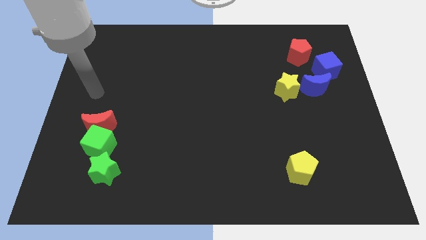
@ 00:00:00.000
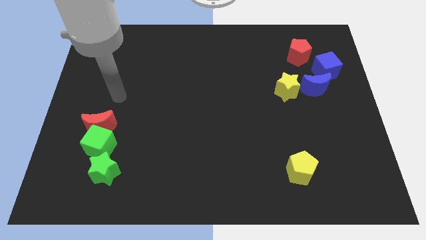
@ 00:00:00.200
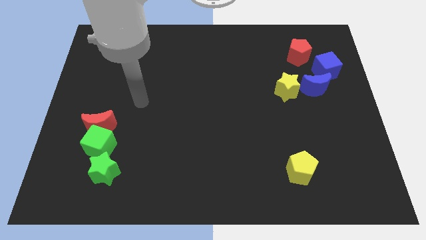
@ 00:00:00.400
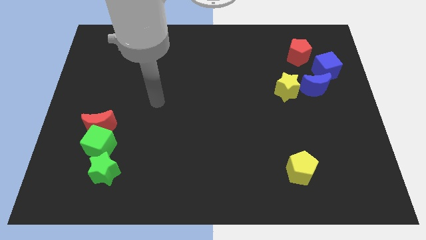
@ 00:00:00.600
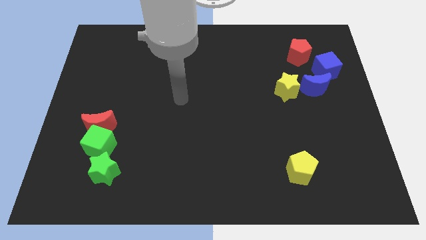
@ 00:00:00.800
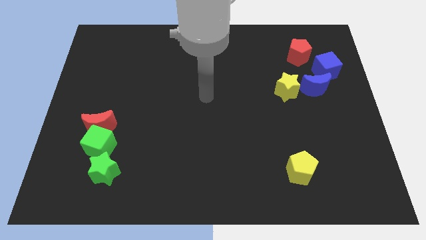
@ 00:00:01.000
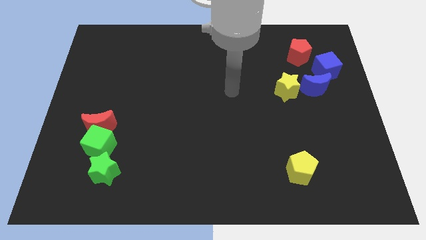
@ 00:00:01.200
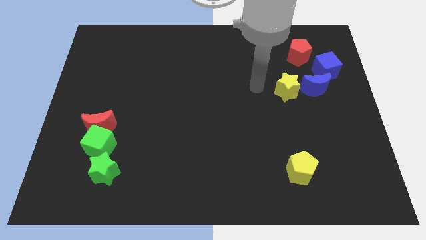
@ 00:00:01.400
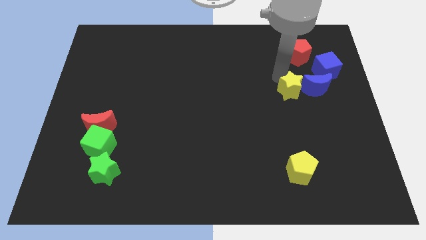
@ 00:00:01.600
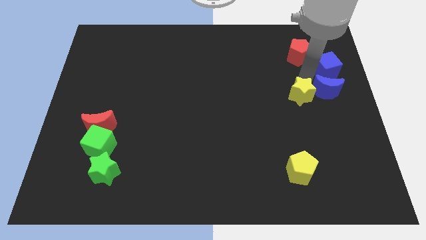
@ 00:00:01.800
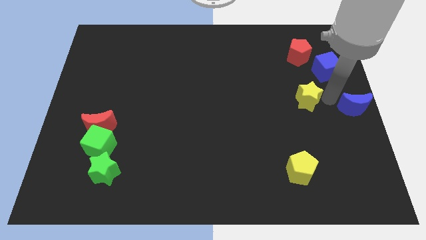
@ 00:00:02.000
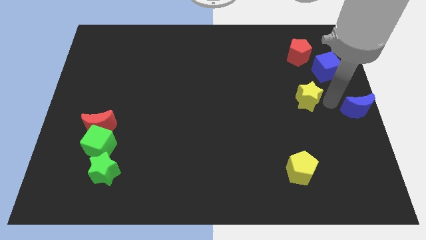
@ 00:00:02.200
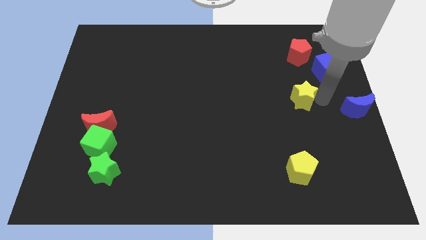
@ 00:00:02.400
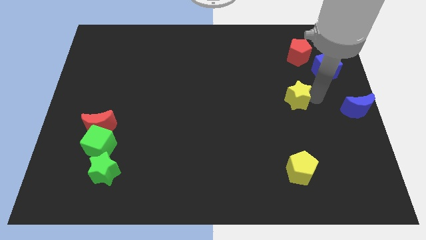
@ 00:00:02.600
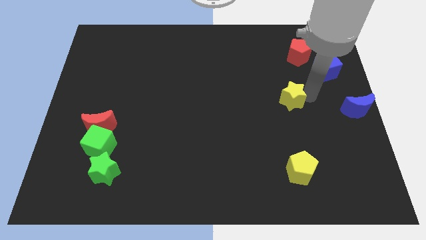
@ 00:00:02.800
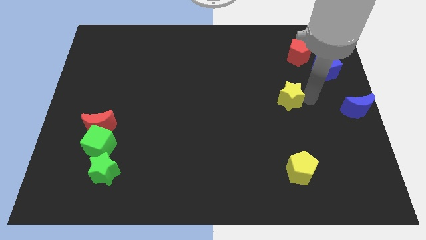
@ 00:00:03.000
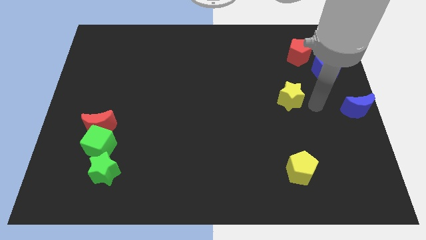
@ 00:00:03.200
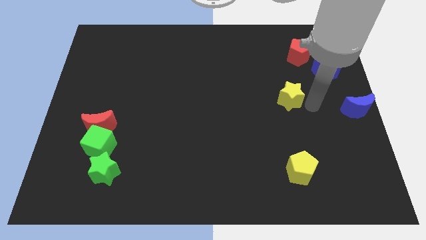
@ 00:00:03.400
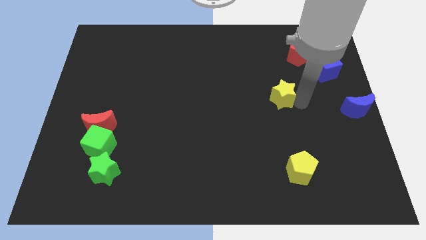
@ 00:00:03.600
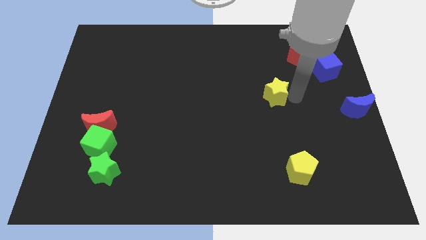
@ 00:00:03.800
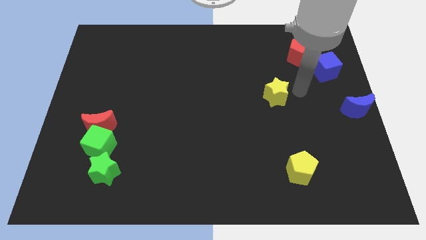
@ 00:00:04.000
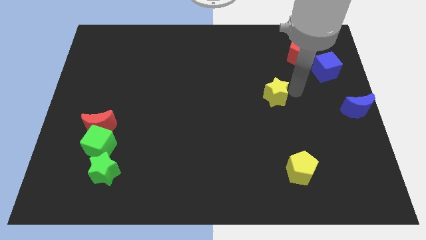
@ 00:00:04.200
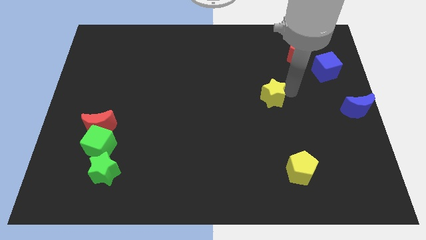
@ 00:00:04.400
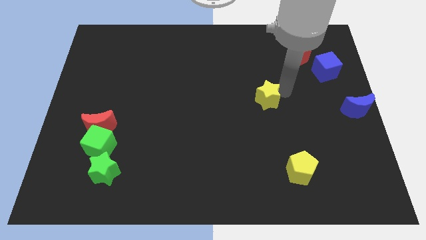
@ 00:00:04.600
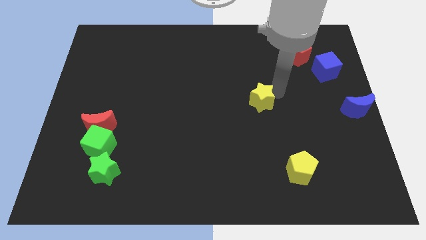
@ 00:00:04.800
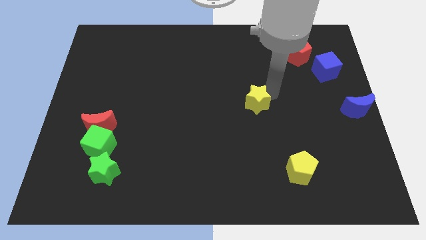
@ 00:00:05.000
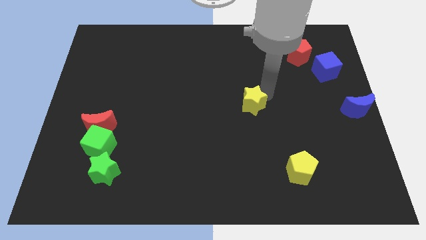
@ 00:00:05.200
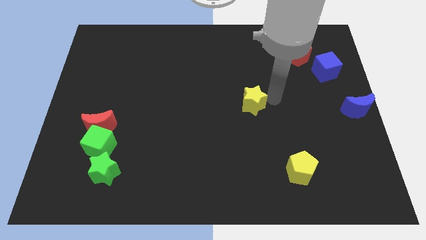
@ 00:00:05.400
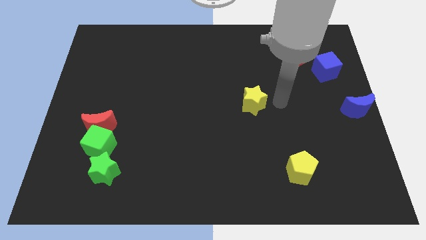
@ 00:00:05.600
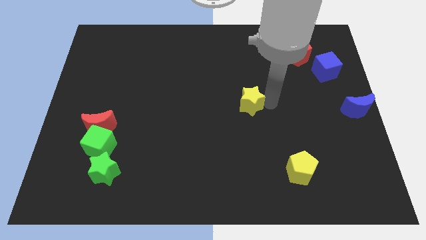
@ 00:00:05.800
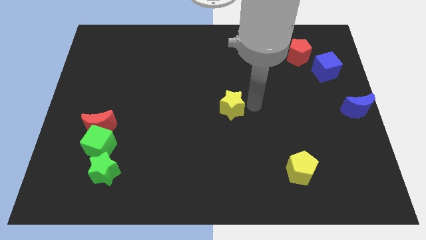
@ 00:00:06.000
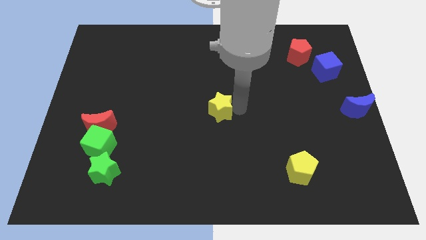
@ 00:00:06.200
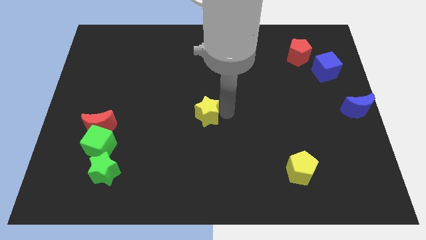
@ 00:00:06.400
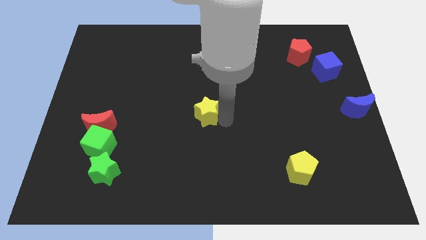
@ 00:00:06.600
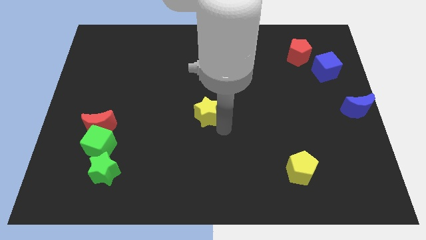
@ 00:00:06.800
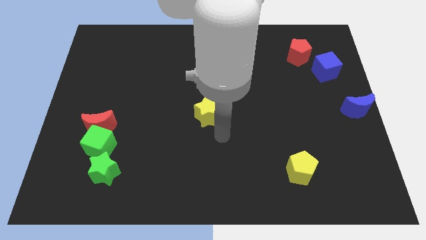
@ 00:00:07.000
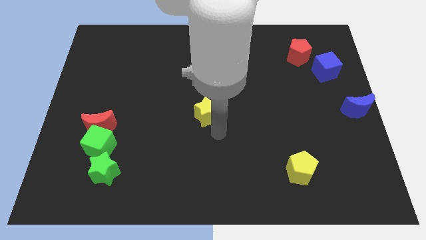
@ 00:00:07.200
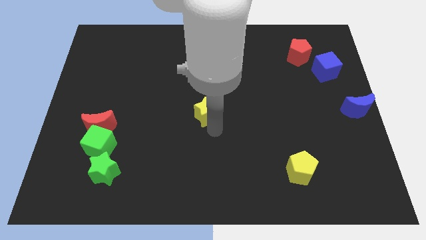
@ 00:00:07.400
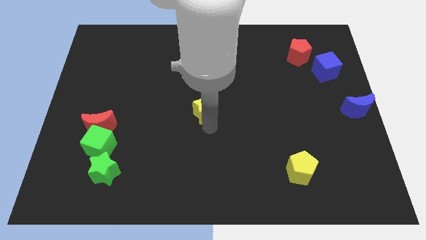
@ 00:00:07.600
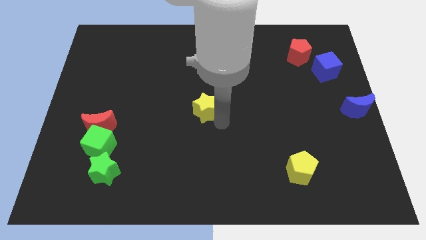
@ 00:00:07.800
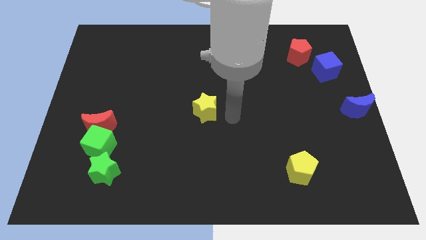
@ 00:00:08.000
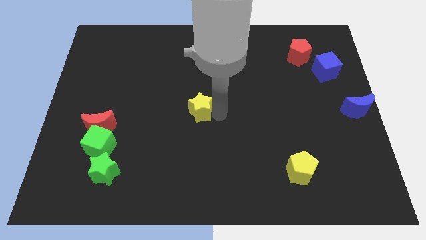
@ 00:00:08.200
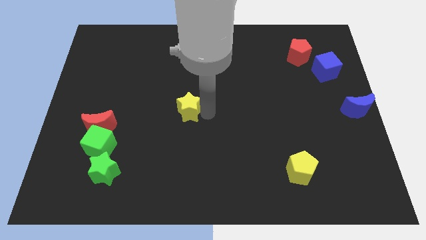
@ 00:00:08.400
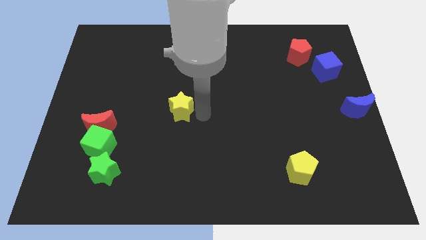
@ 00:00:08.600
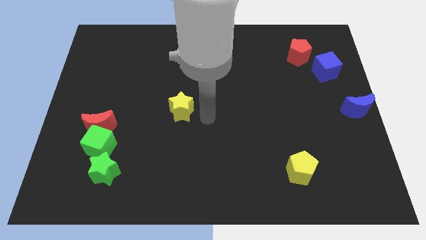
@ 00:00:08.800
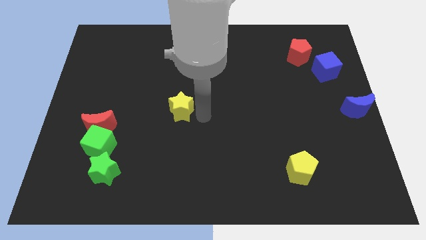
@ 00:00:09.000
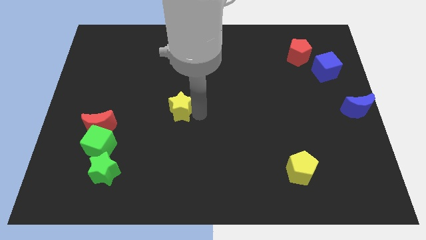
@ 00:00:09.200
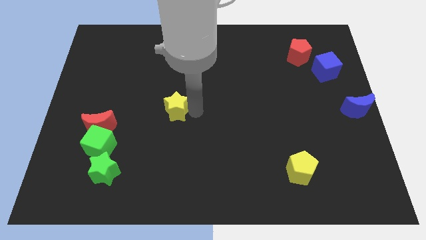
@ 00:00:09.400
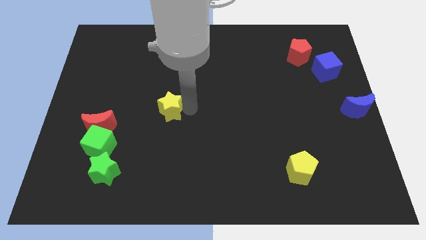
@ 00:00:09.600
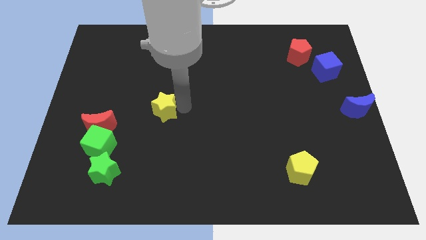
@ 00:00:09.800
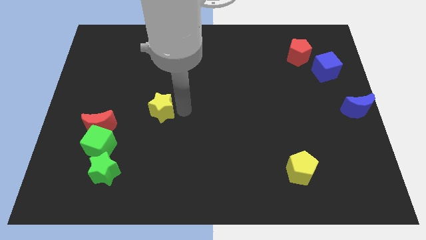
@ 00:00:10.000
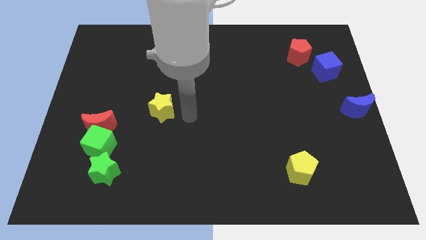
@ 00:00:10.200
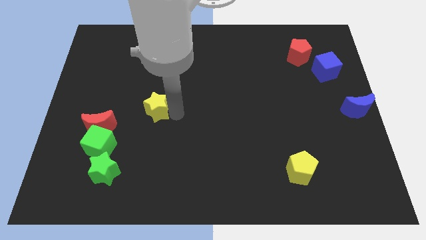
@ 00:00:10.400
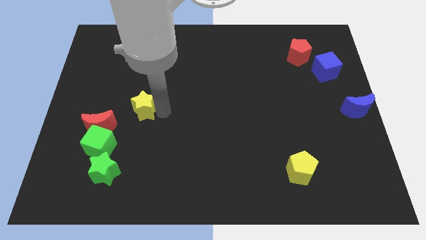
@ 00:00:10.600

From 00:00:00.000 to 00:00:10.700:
move the yellow star to the top right of the red moon

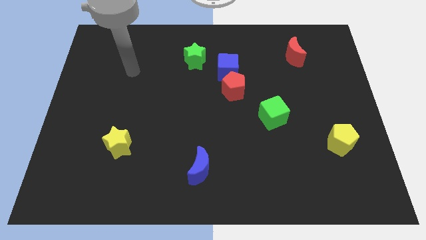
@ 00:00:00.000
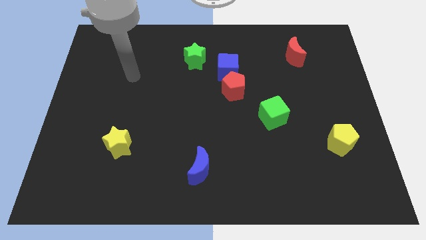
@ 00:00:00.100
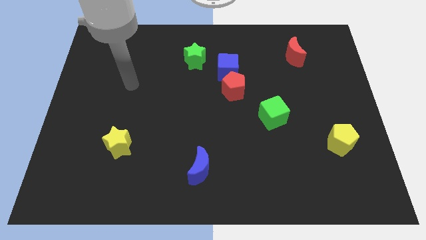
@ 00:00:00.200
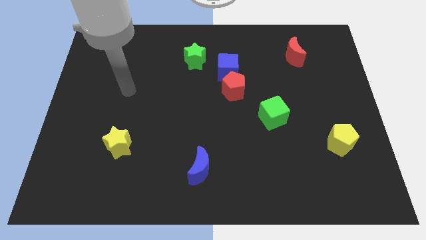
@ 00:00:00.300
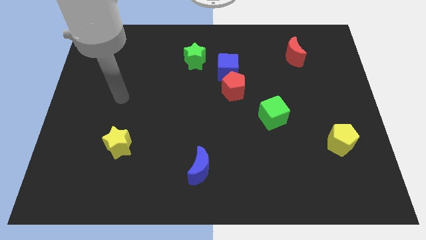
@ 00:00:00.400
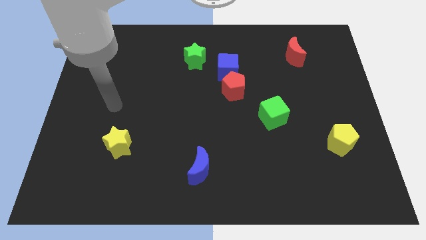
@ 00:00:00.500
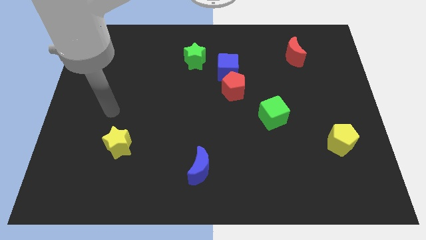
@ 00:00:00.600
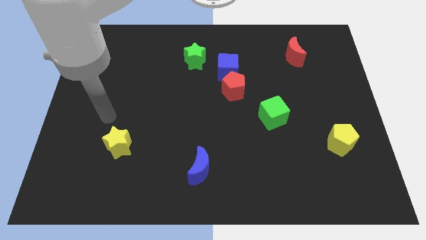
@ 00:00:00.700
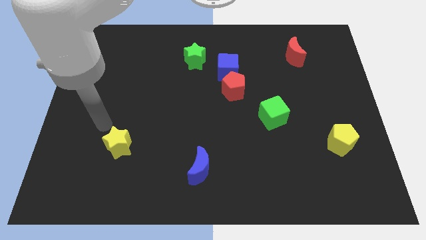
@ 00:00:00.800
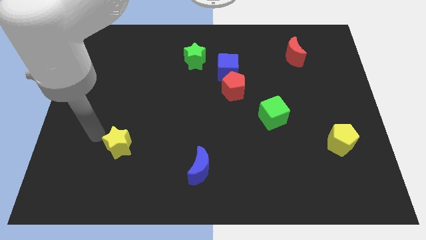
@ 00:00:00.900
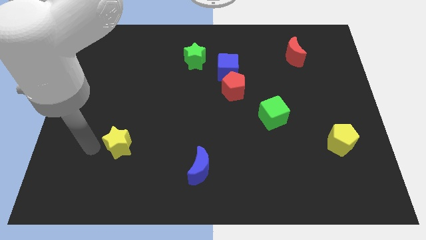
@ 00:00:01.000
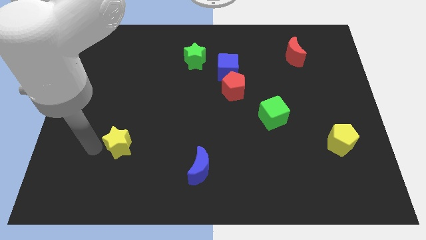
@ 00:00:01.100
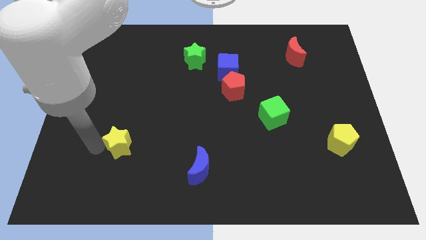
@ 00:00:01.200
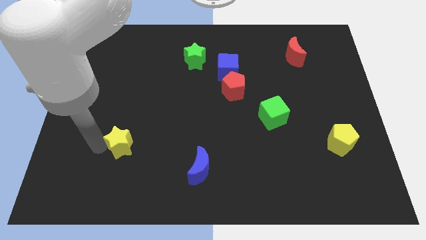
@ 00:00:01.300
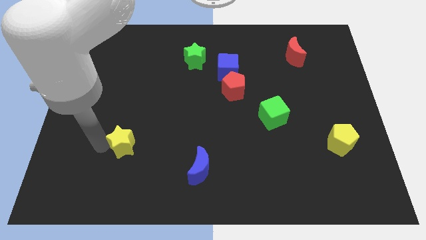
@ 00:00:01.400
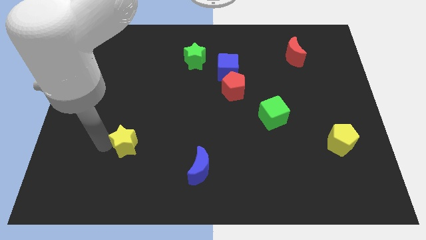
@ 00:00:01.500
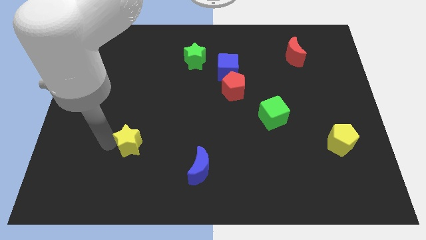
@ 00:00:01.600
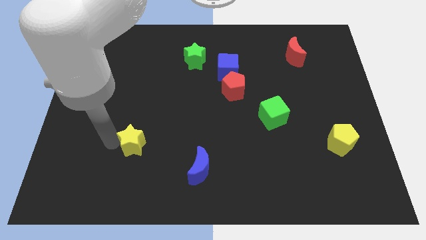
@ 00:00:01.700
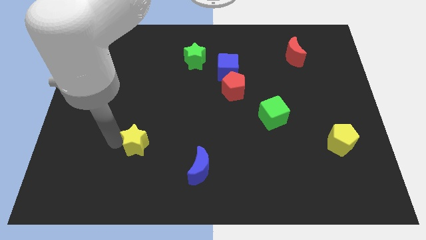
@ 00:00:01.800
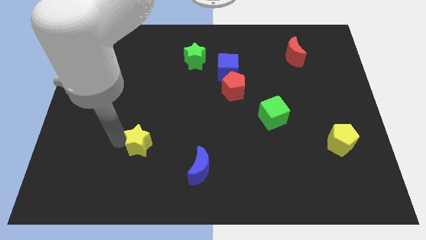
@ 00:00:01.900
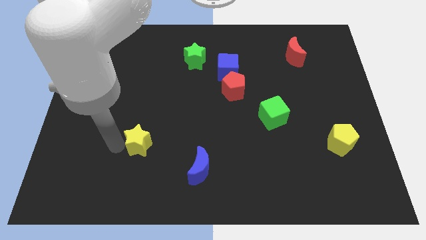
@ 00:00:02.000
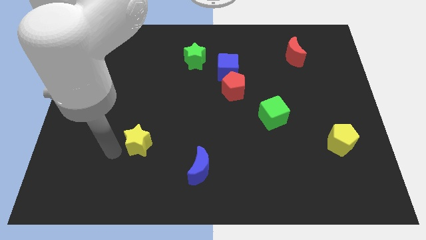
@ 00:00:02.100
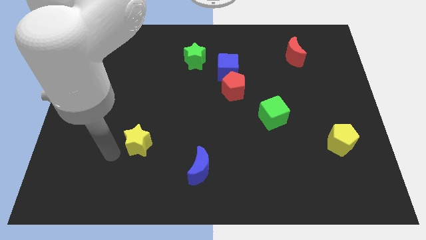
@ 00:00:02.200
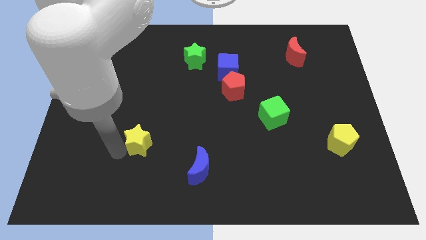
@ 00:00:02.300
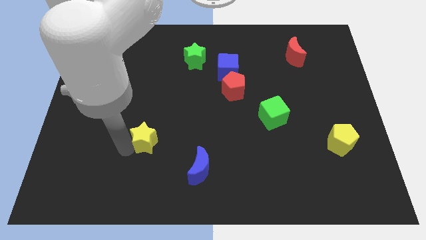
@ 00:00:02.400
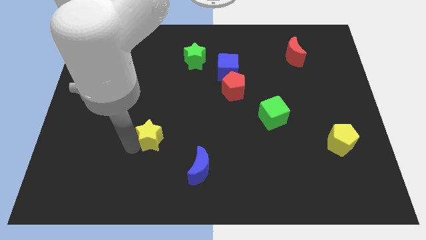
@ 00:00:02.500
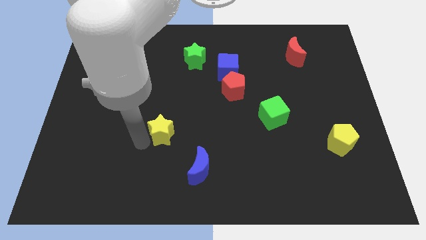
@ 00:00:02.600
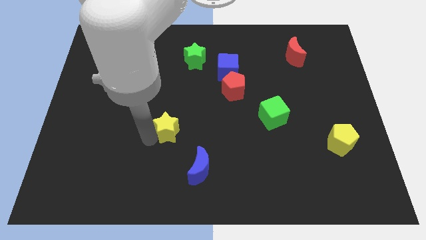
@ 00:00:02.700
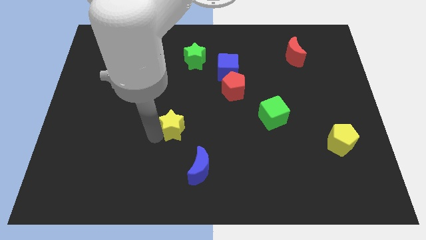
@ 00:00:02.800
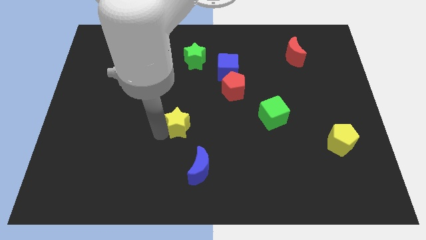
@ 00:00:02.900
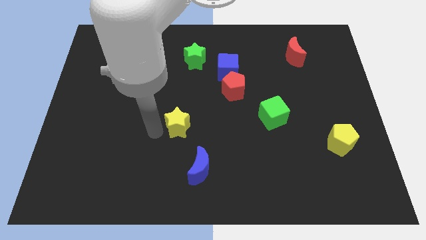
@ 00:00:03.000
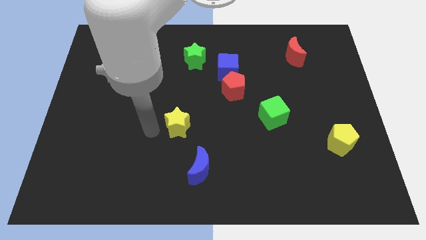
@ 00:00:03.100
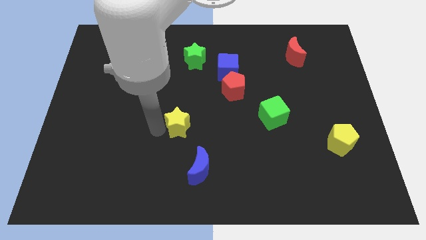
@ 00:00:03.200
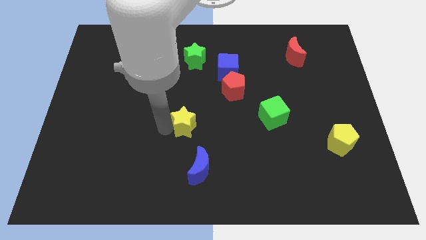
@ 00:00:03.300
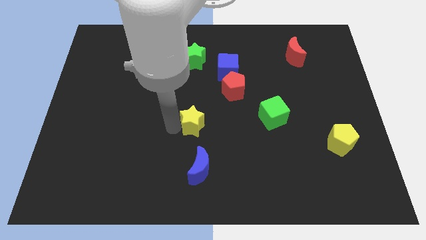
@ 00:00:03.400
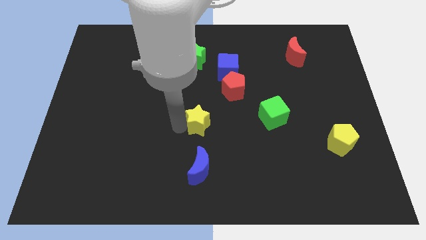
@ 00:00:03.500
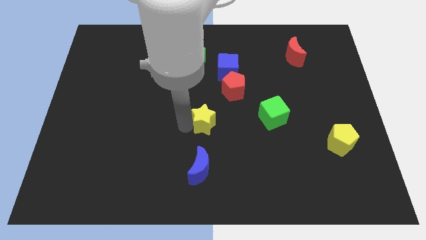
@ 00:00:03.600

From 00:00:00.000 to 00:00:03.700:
slide the yellow star to the left of the green cube
